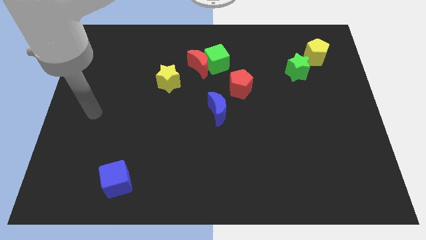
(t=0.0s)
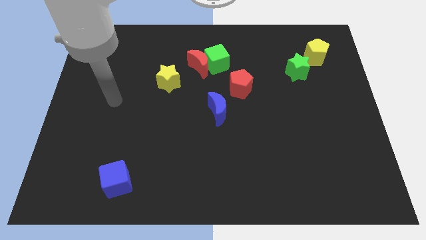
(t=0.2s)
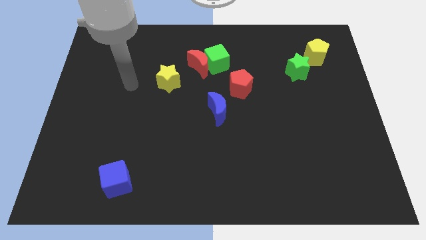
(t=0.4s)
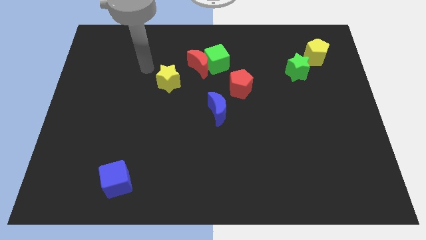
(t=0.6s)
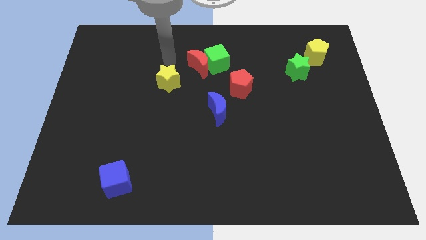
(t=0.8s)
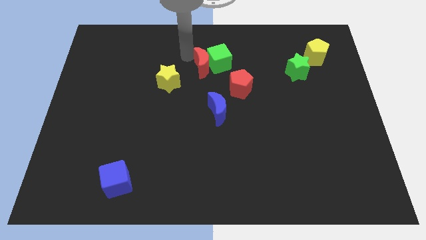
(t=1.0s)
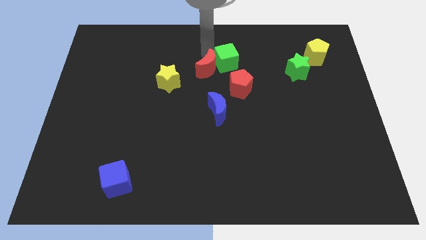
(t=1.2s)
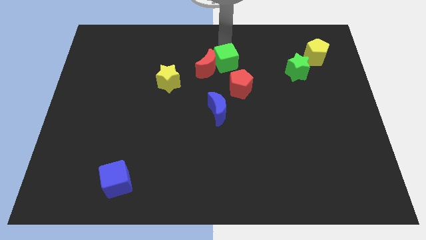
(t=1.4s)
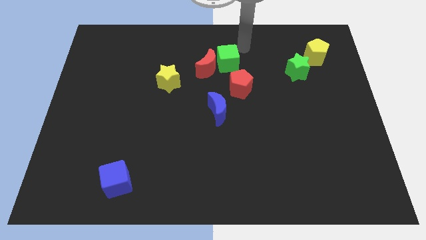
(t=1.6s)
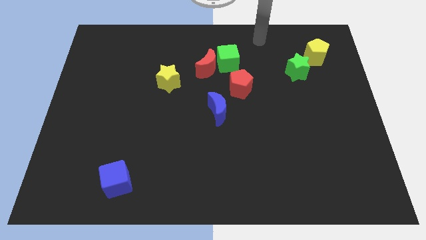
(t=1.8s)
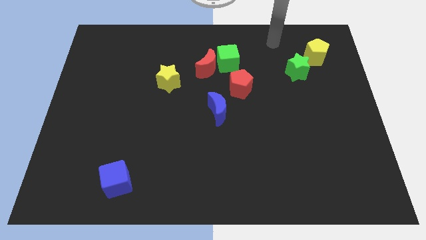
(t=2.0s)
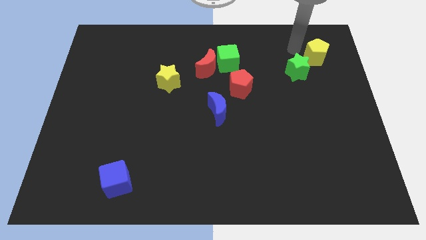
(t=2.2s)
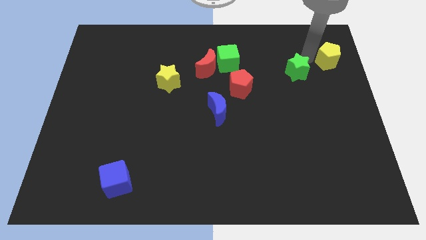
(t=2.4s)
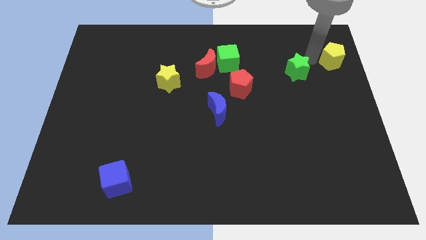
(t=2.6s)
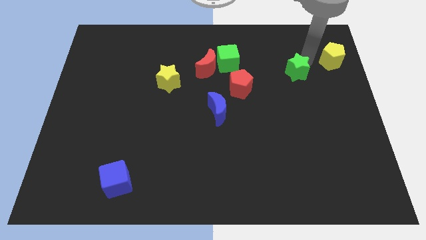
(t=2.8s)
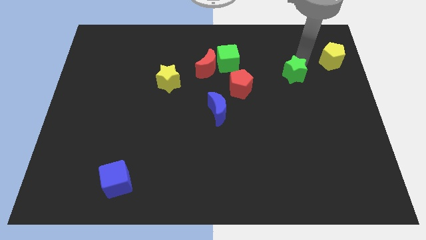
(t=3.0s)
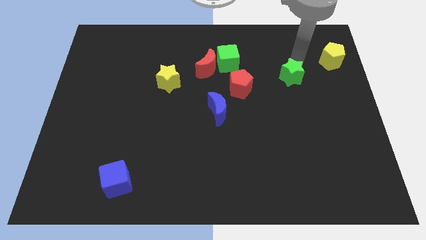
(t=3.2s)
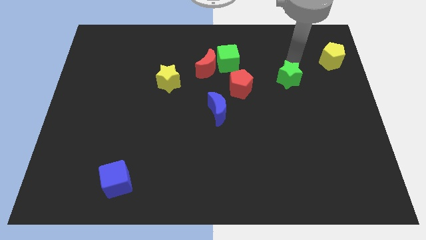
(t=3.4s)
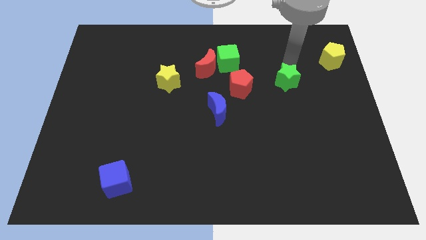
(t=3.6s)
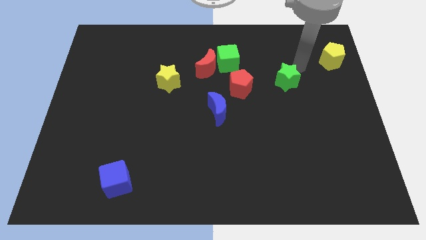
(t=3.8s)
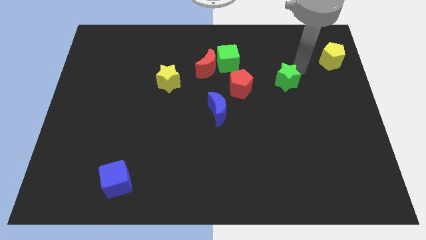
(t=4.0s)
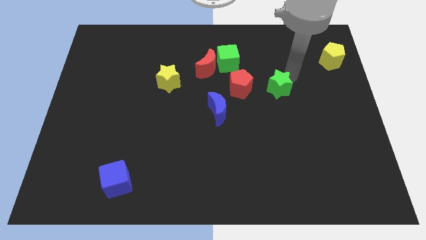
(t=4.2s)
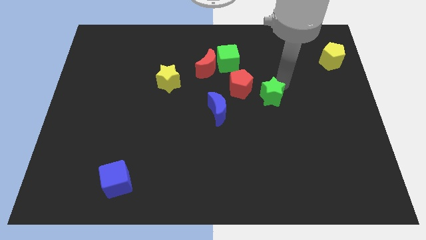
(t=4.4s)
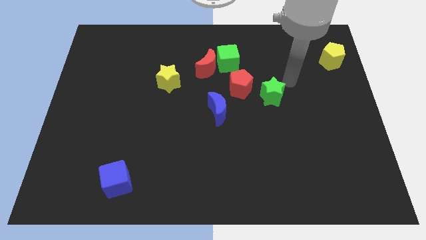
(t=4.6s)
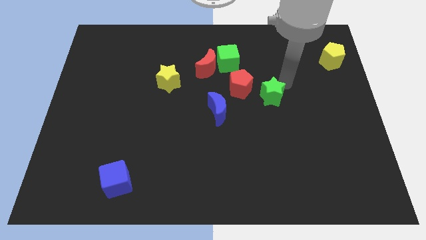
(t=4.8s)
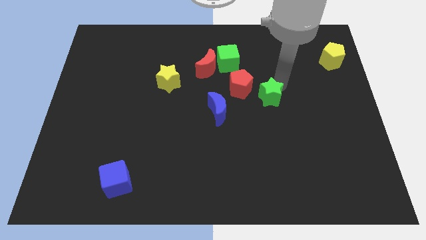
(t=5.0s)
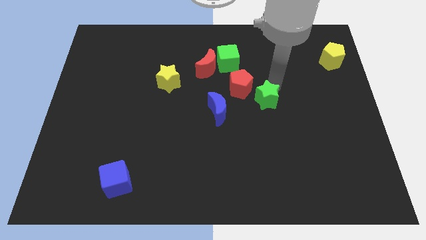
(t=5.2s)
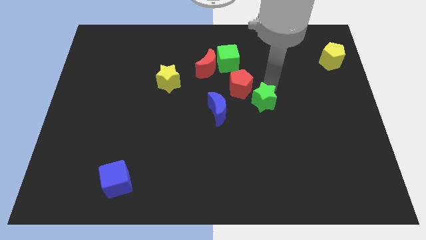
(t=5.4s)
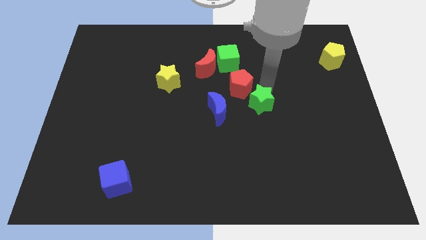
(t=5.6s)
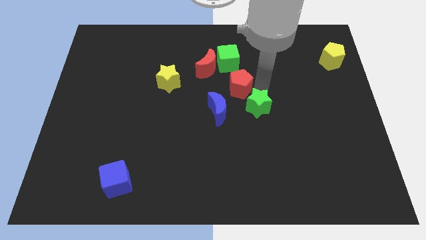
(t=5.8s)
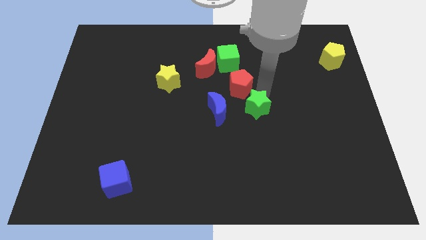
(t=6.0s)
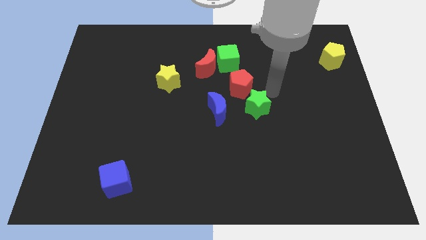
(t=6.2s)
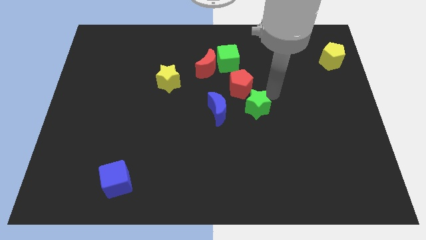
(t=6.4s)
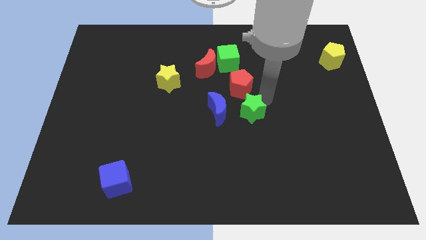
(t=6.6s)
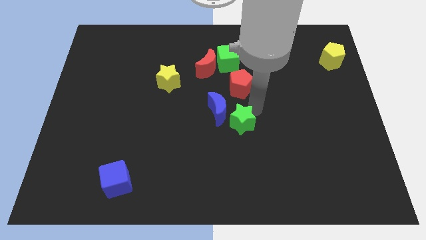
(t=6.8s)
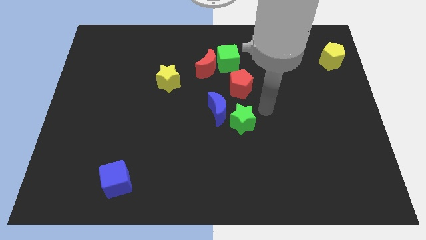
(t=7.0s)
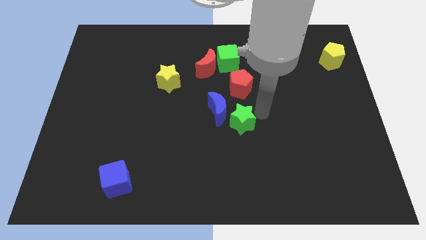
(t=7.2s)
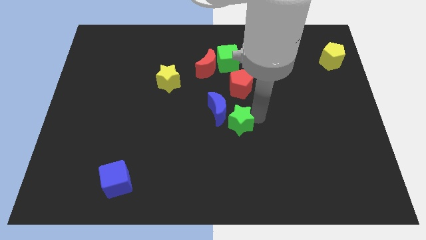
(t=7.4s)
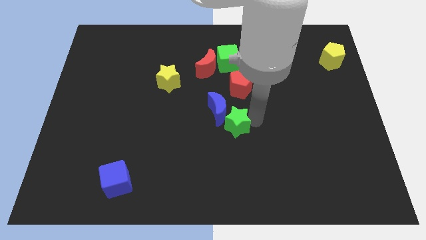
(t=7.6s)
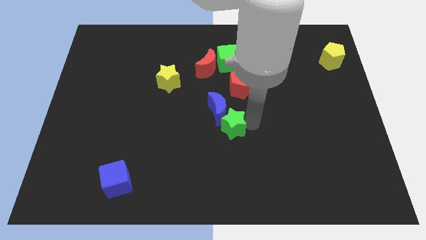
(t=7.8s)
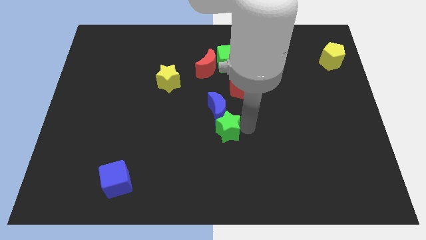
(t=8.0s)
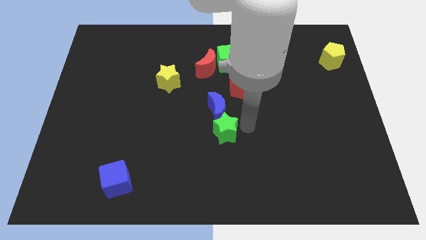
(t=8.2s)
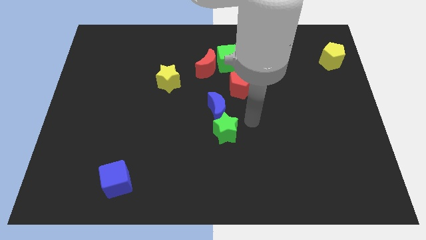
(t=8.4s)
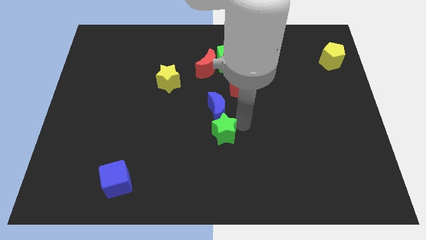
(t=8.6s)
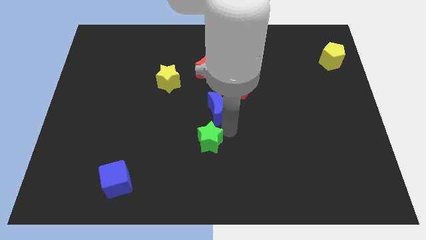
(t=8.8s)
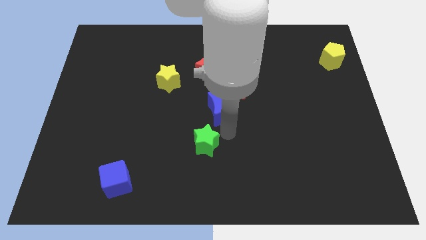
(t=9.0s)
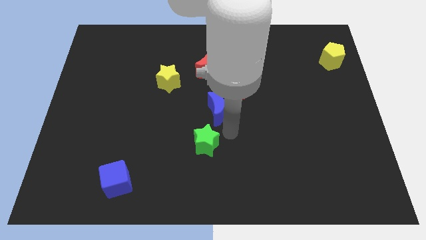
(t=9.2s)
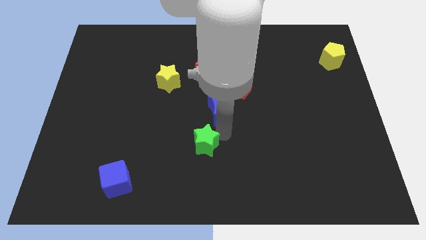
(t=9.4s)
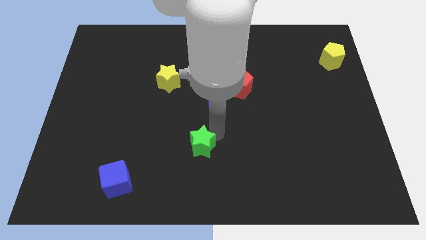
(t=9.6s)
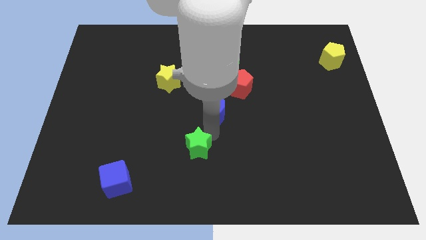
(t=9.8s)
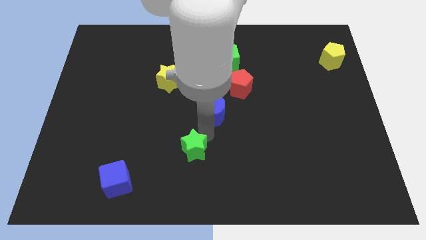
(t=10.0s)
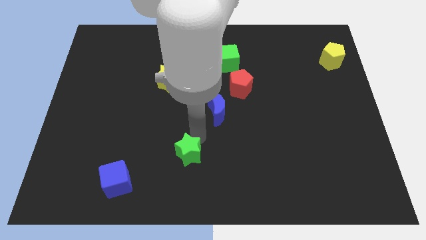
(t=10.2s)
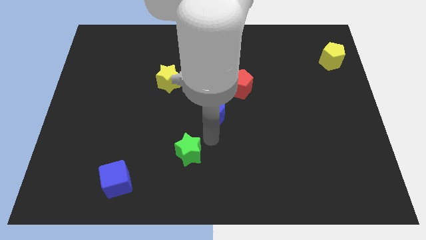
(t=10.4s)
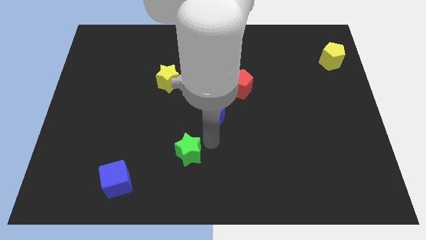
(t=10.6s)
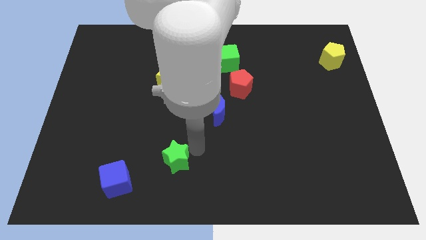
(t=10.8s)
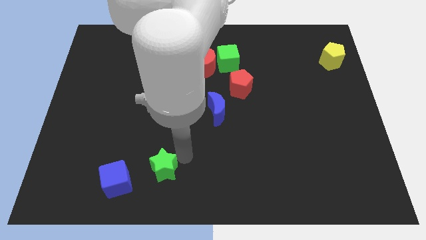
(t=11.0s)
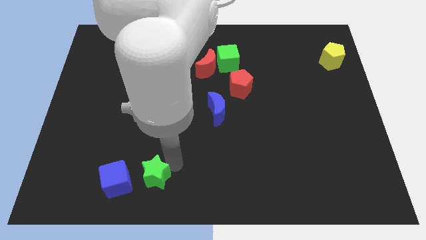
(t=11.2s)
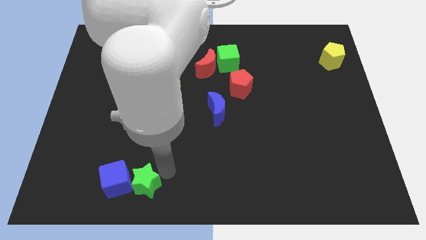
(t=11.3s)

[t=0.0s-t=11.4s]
move the green star next to the blue cube

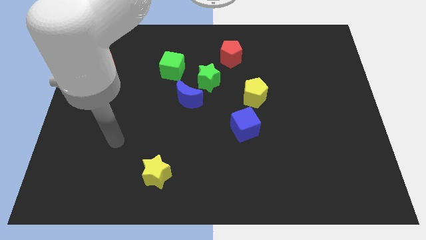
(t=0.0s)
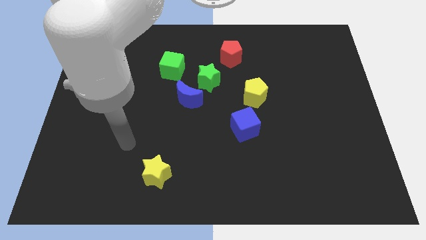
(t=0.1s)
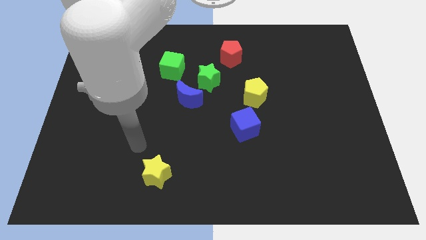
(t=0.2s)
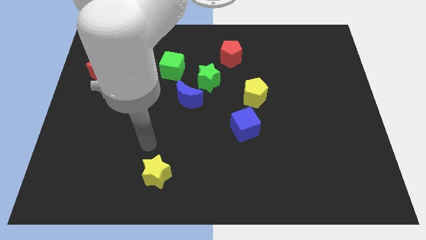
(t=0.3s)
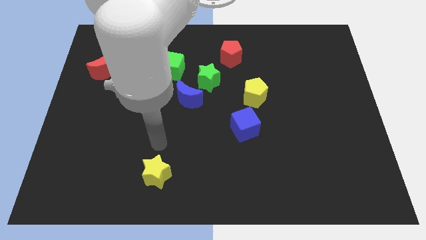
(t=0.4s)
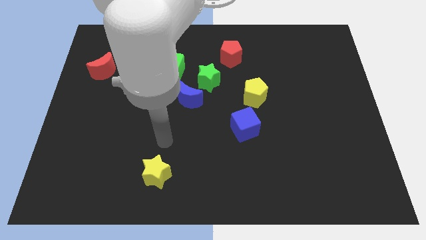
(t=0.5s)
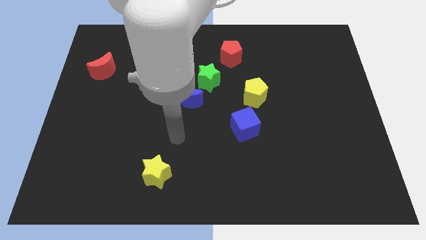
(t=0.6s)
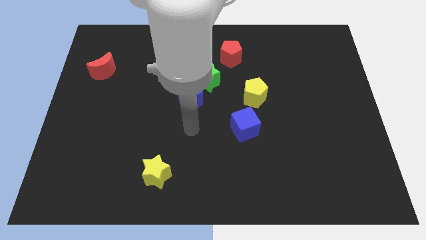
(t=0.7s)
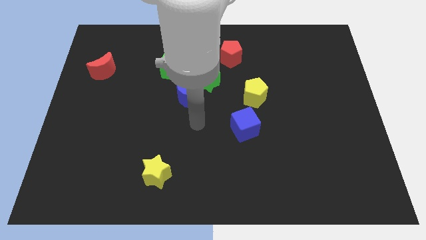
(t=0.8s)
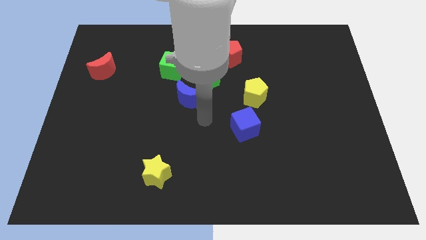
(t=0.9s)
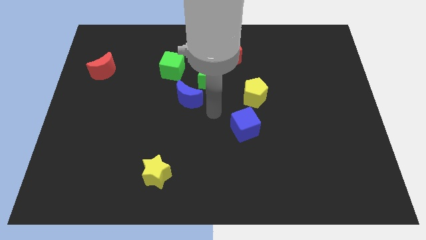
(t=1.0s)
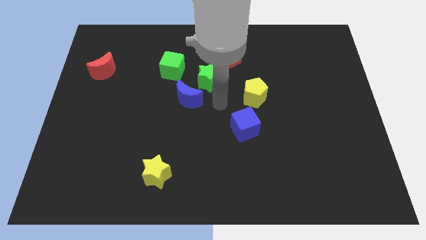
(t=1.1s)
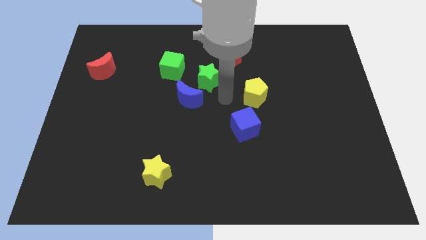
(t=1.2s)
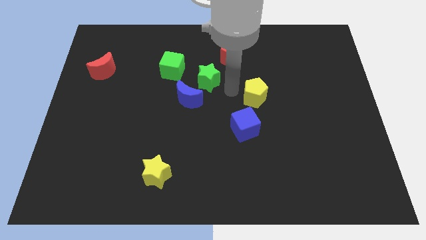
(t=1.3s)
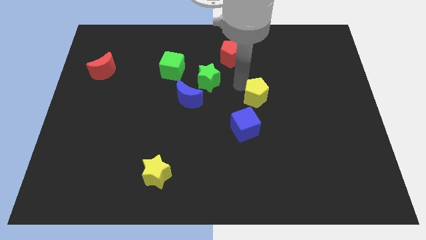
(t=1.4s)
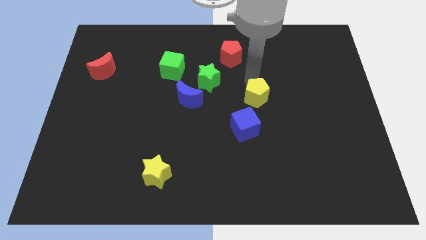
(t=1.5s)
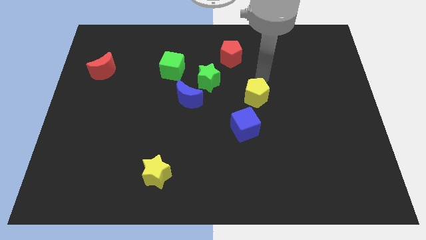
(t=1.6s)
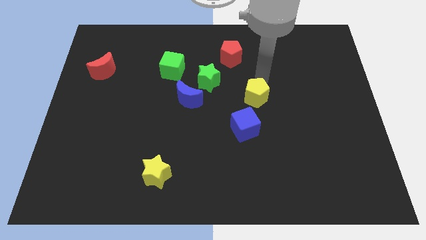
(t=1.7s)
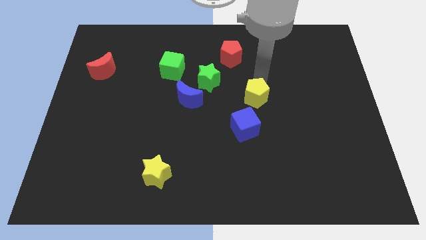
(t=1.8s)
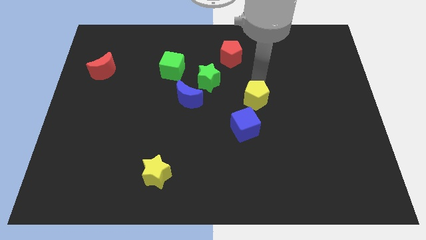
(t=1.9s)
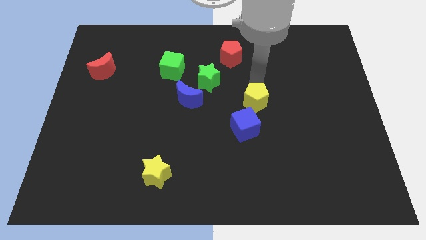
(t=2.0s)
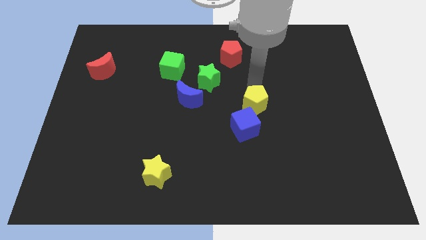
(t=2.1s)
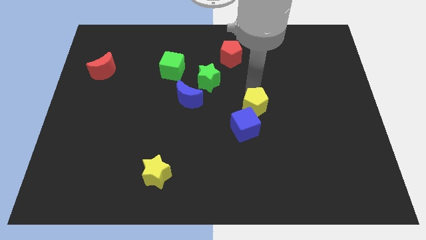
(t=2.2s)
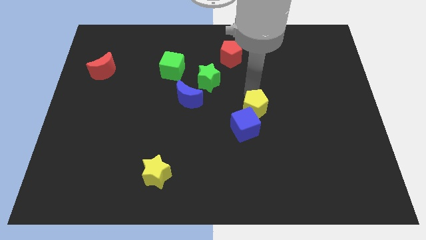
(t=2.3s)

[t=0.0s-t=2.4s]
put the yellow pentagon to the blue cube
